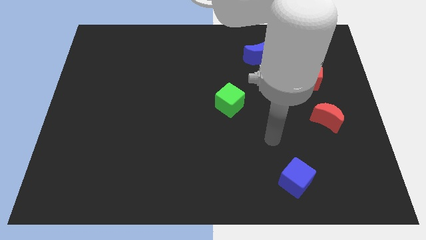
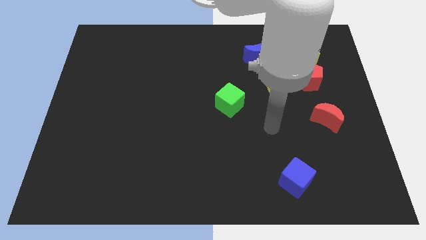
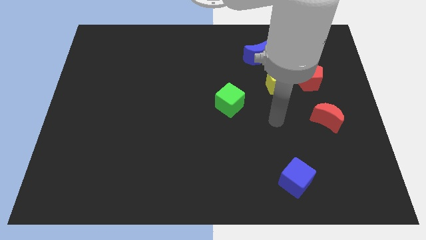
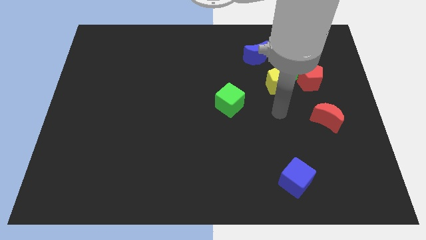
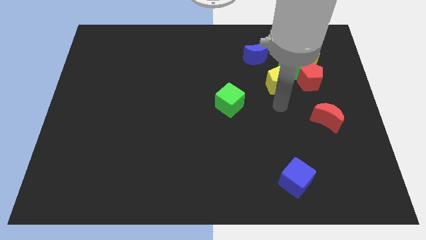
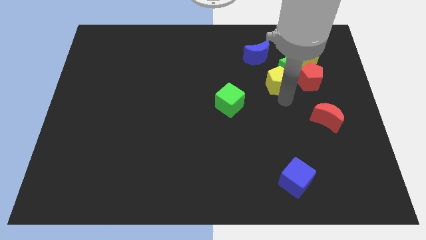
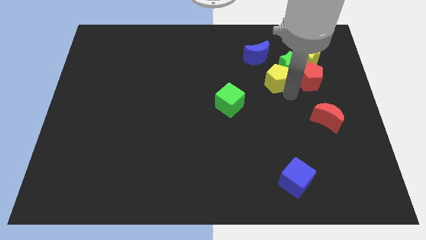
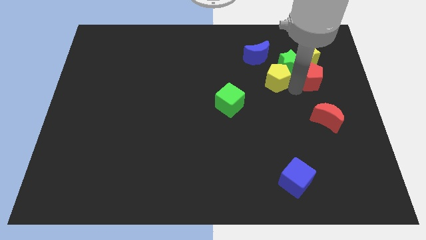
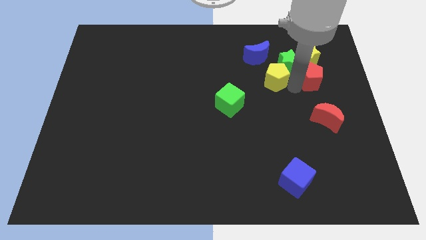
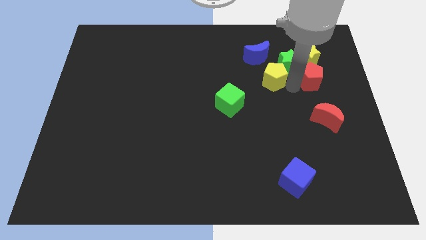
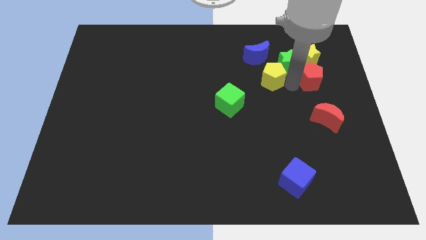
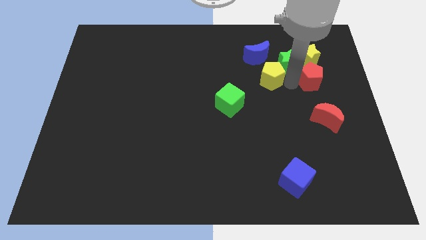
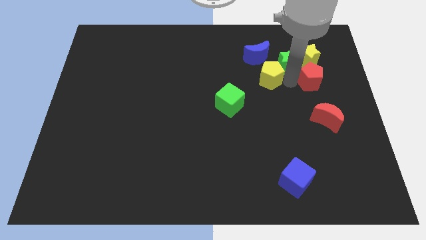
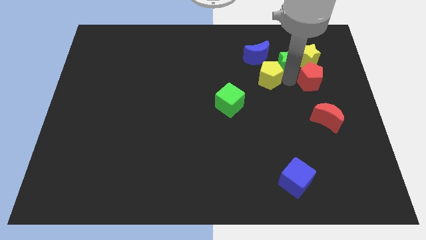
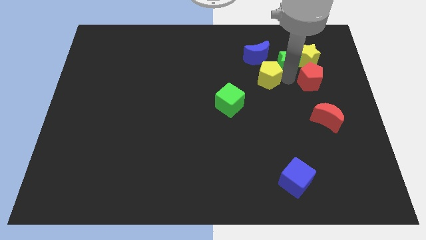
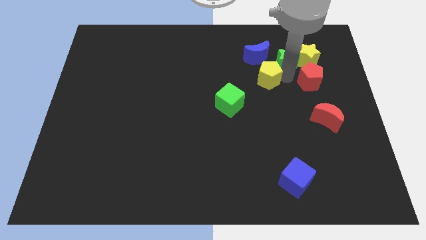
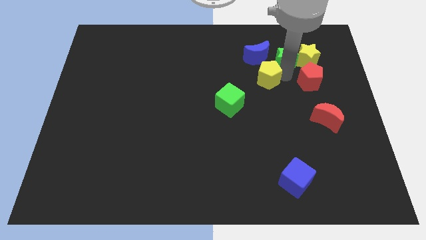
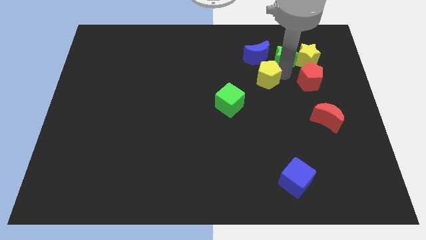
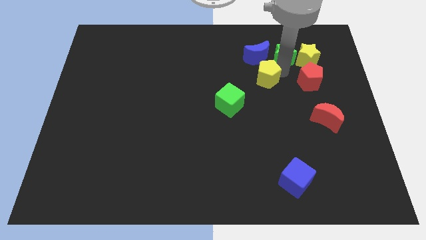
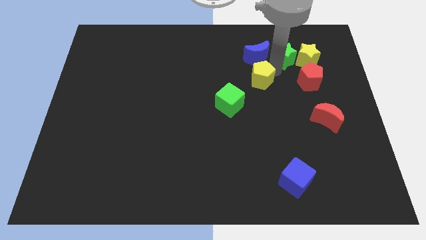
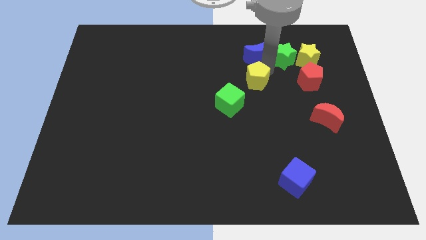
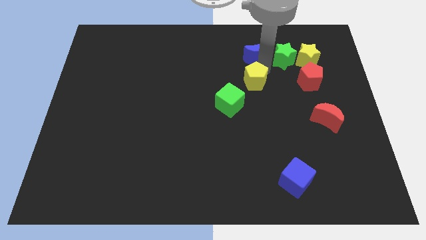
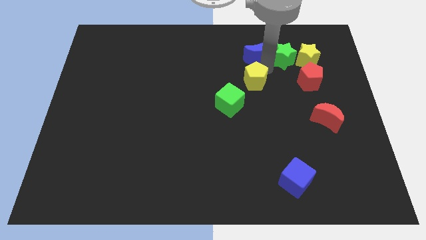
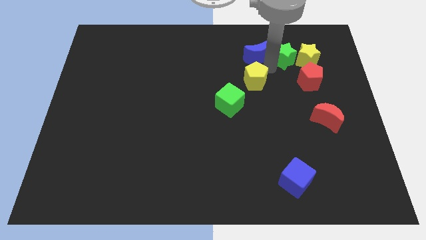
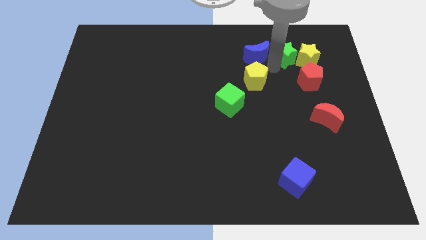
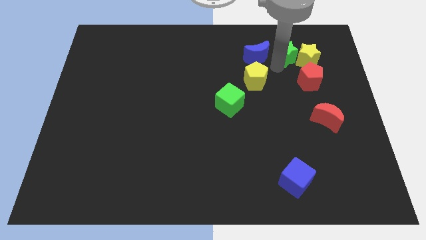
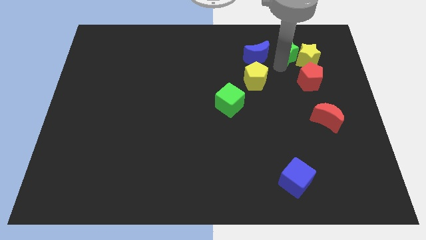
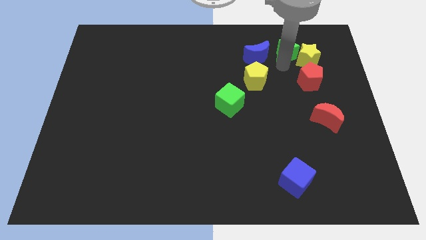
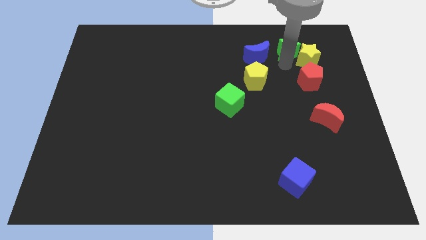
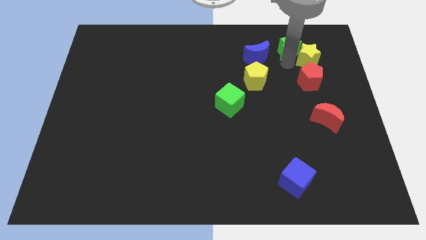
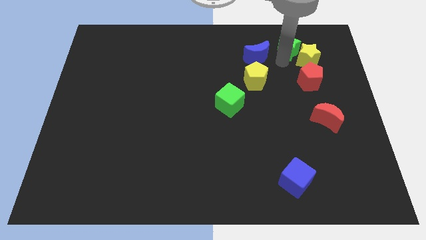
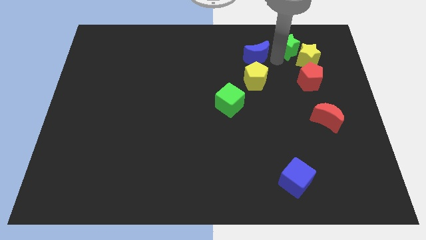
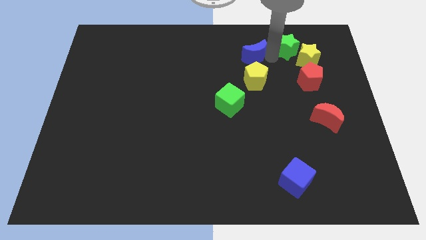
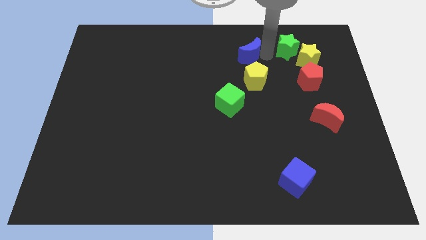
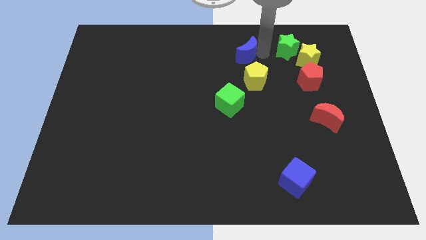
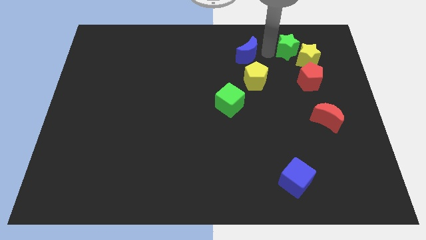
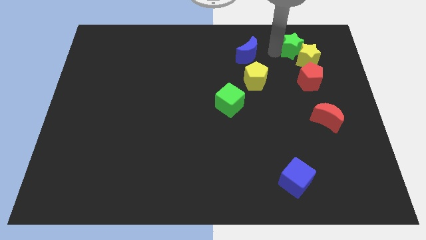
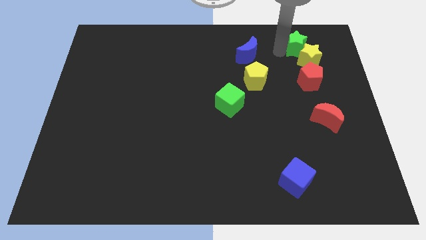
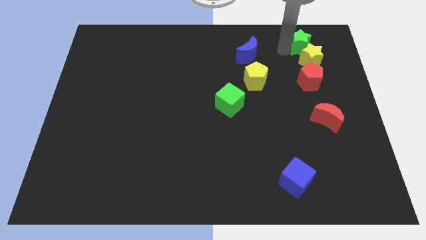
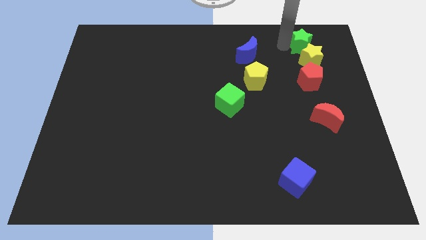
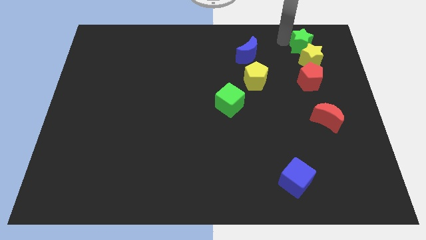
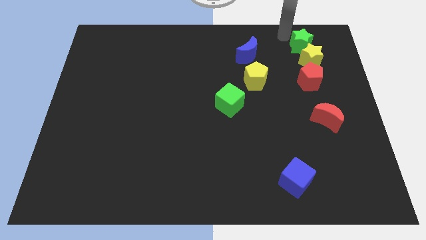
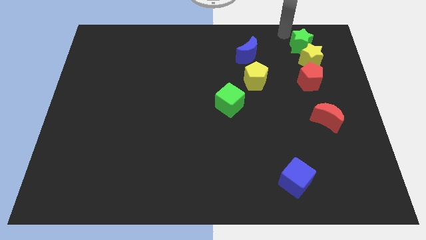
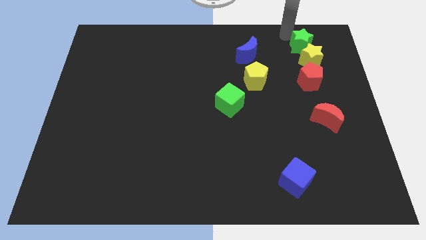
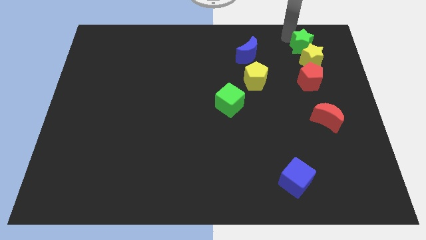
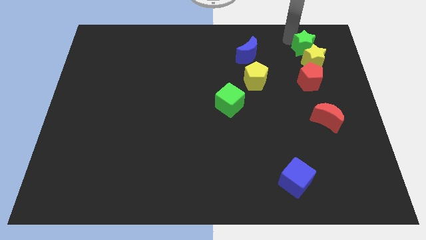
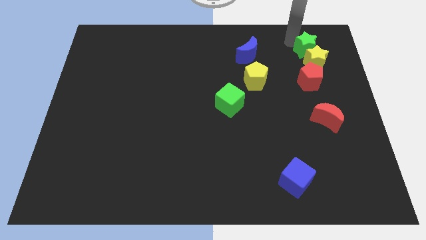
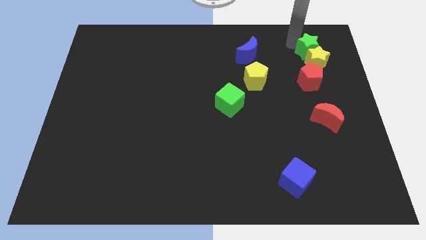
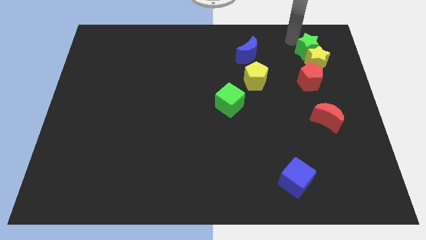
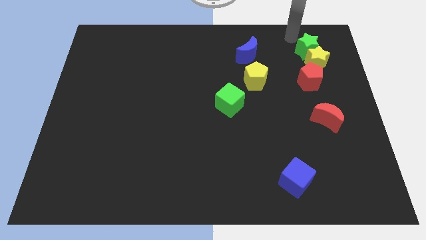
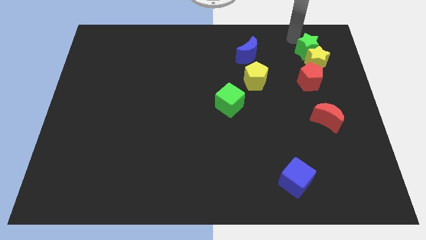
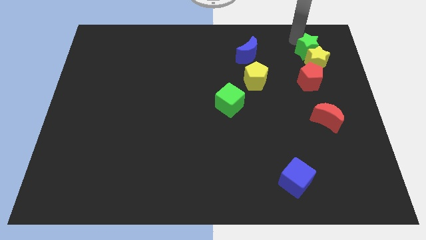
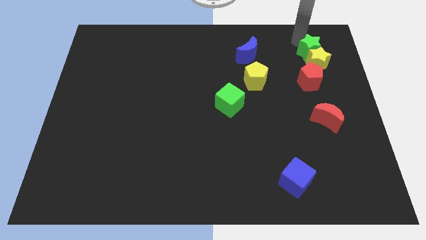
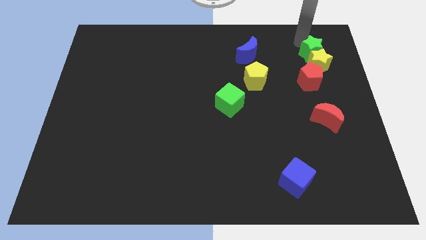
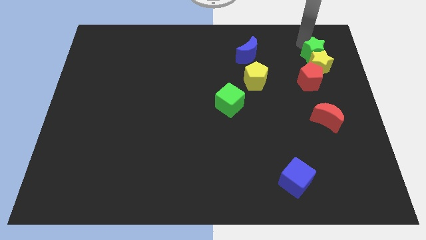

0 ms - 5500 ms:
push the green star diagonally up and to the right of the red pentagon

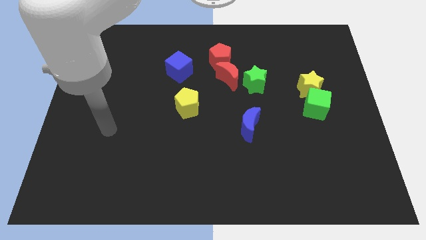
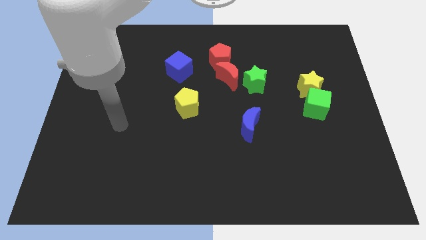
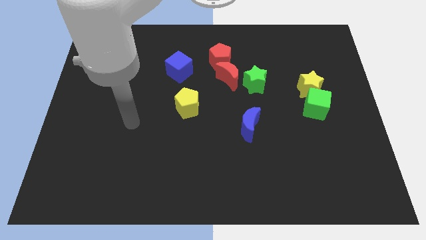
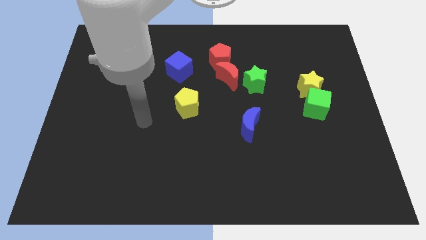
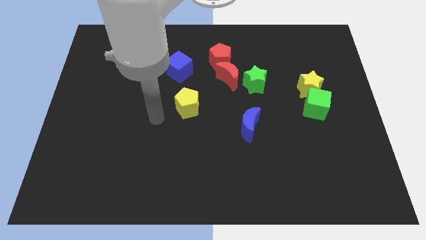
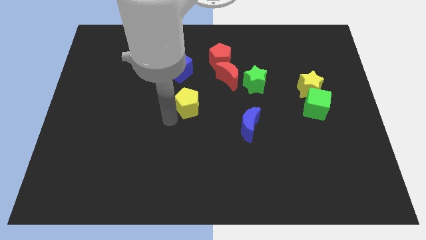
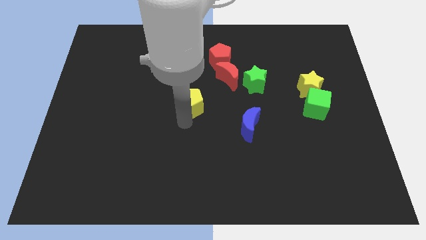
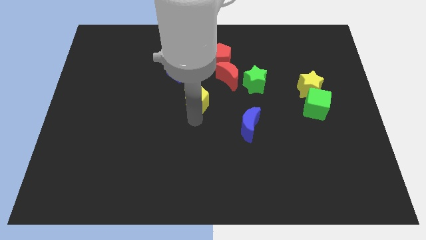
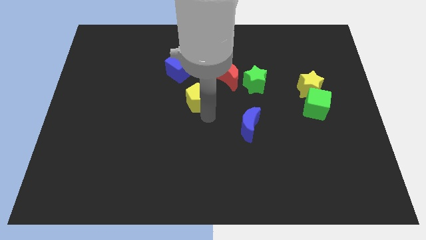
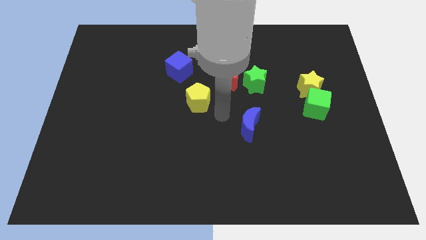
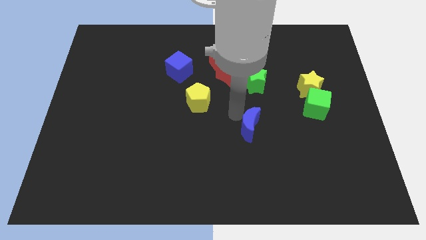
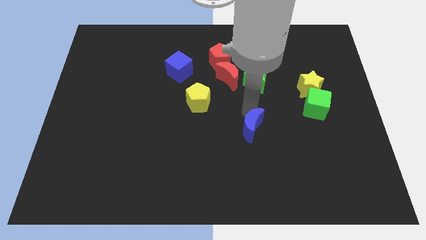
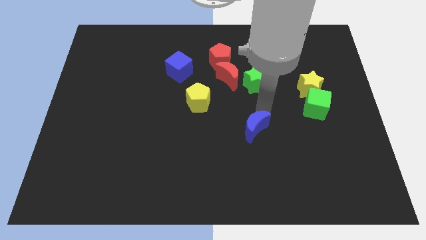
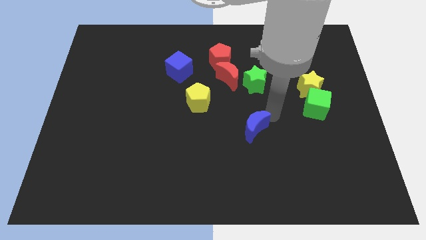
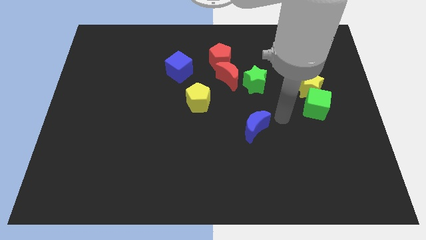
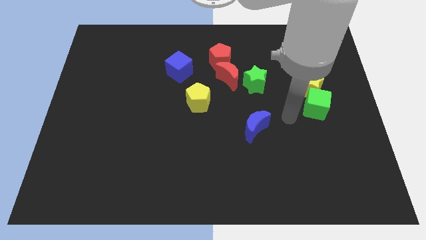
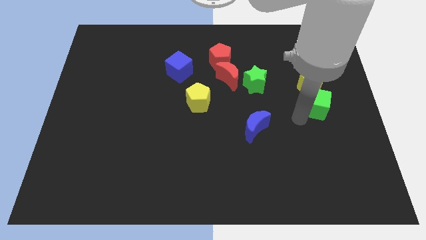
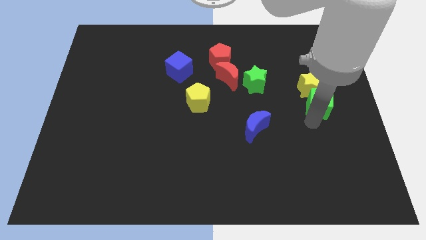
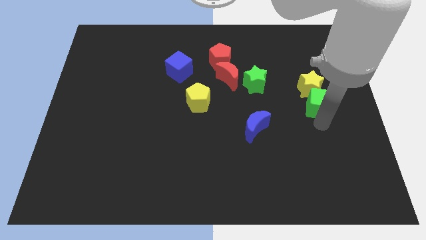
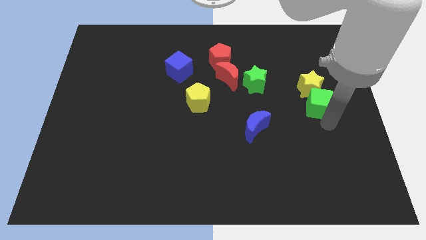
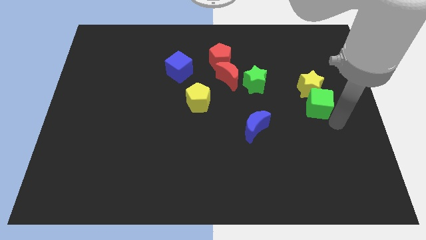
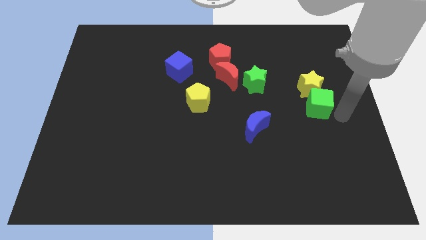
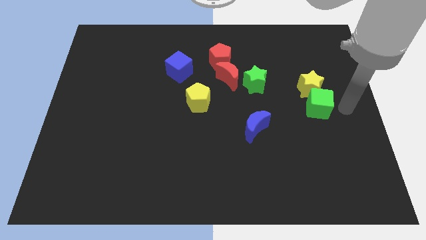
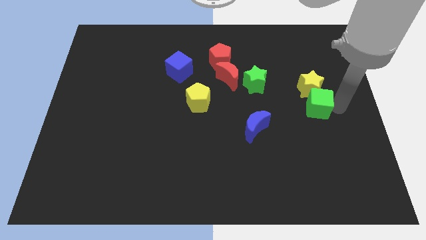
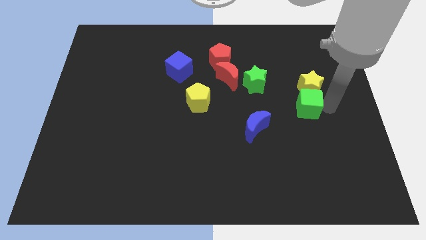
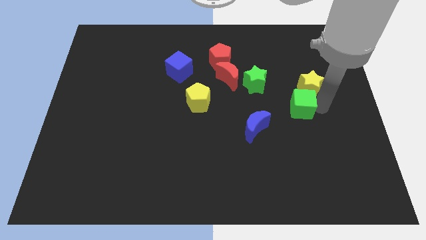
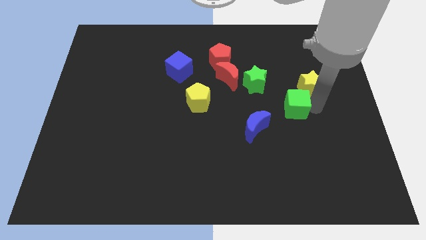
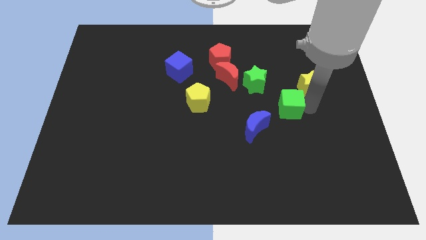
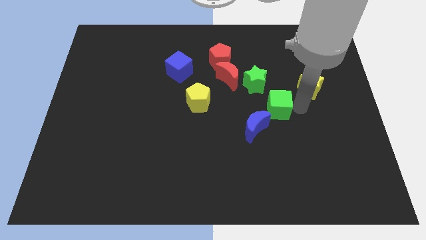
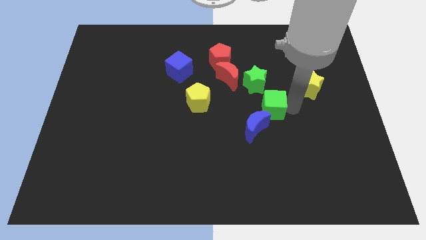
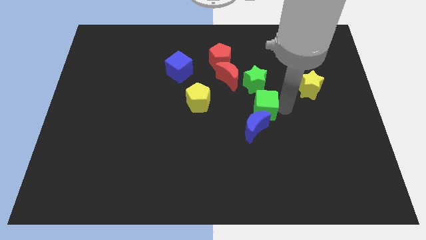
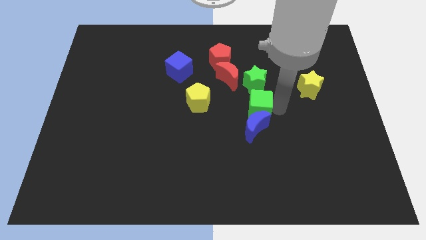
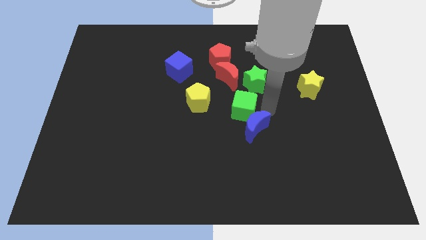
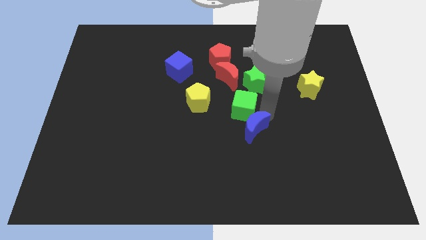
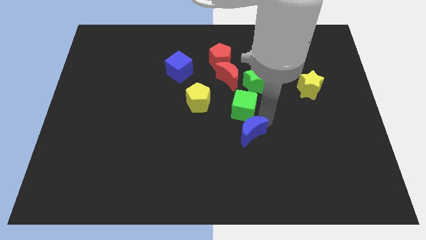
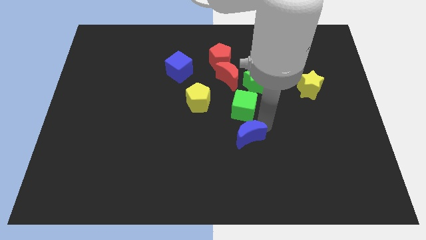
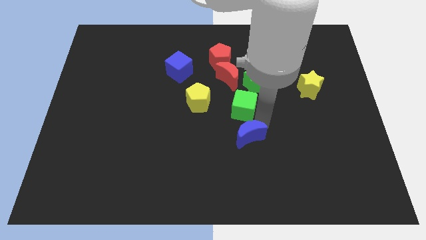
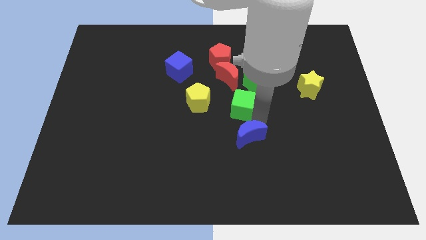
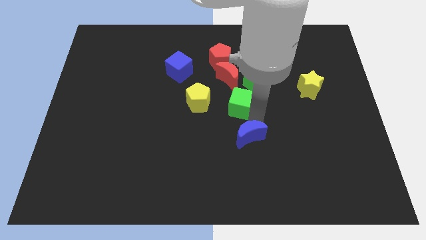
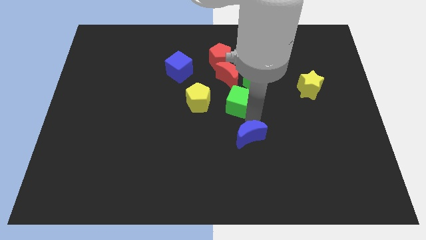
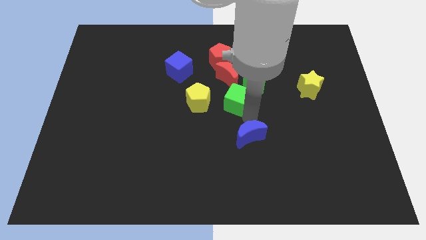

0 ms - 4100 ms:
slide the green cube to the bottom side of the red pentagon
